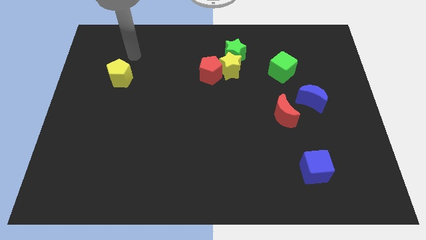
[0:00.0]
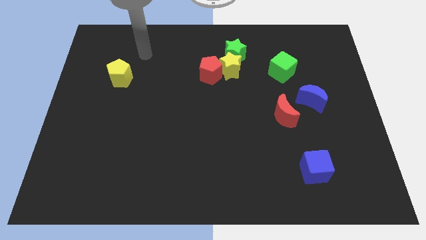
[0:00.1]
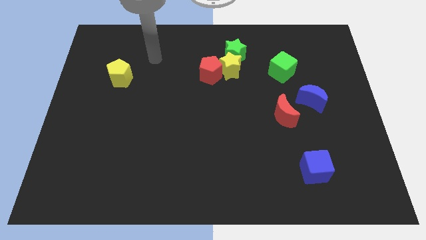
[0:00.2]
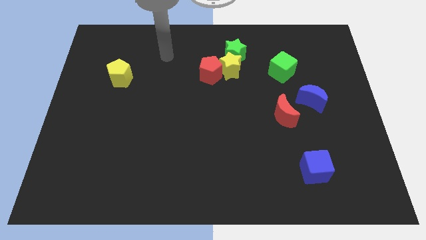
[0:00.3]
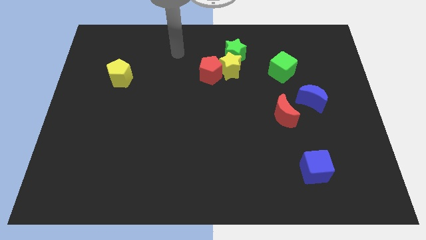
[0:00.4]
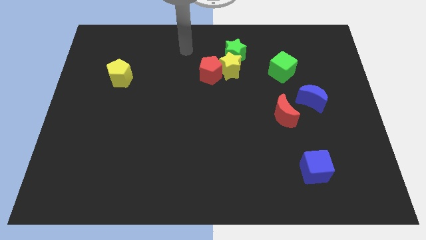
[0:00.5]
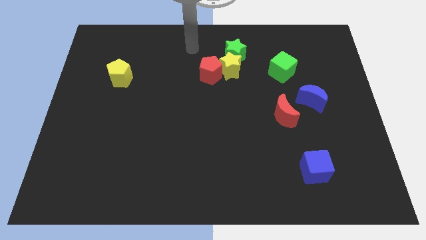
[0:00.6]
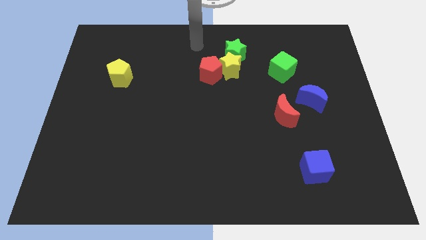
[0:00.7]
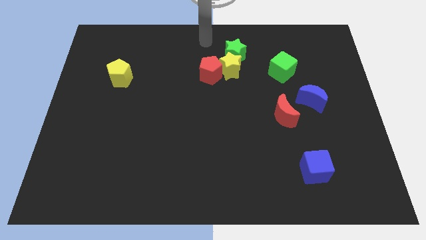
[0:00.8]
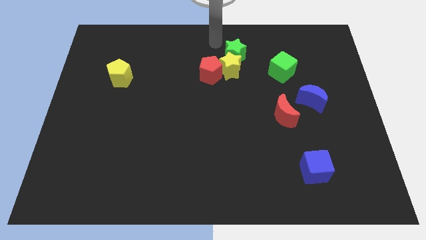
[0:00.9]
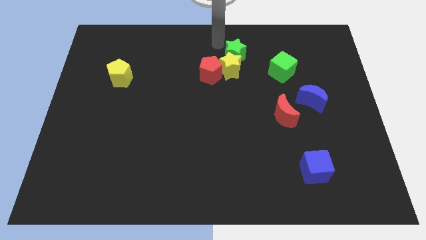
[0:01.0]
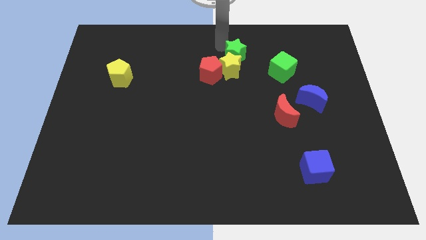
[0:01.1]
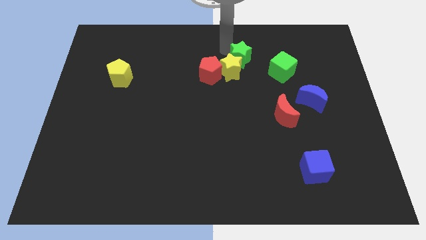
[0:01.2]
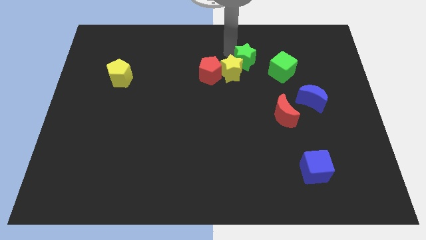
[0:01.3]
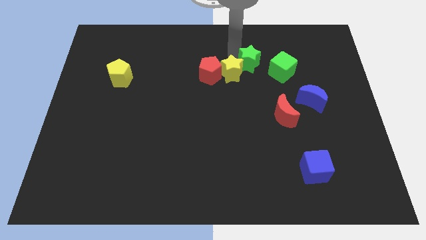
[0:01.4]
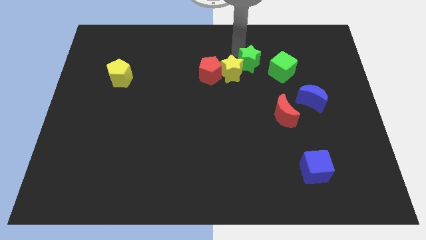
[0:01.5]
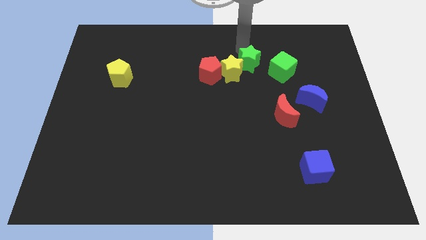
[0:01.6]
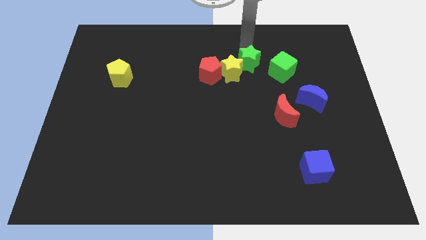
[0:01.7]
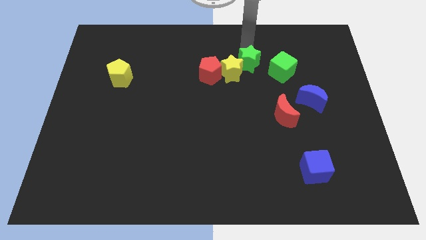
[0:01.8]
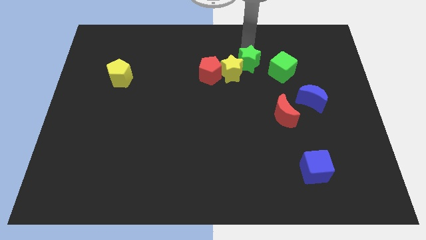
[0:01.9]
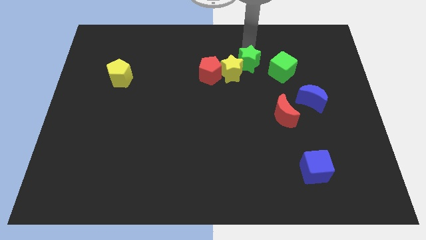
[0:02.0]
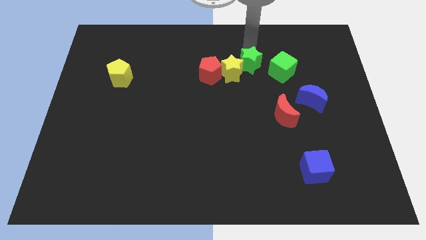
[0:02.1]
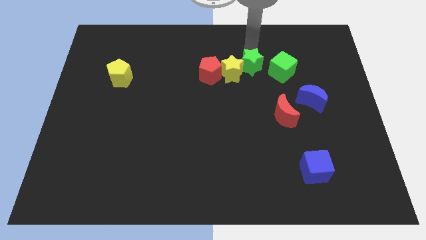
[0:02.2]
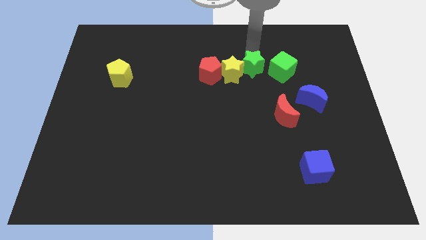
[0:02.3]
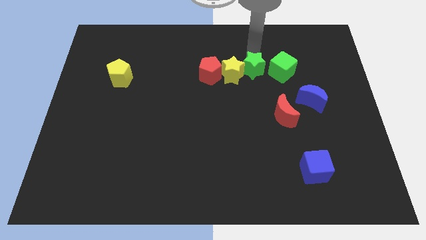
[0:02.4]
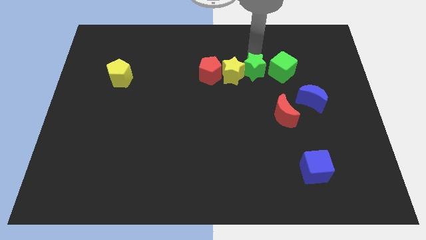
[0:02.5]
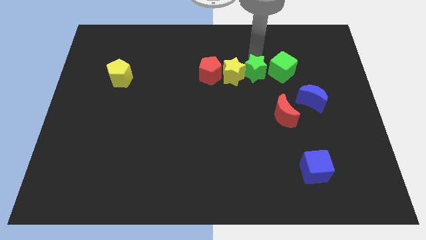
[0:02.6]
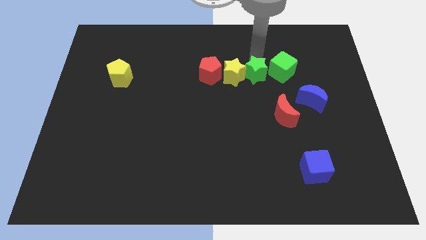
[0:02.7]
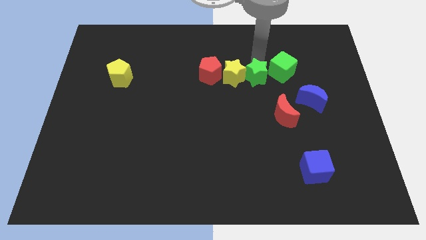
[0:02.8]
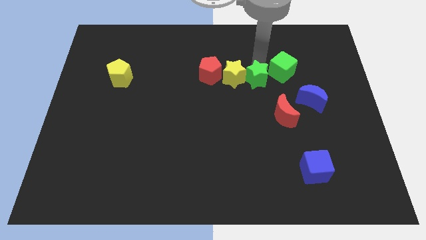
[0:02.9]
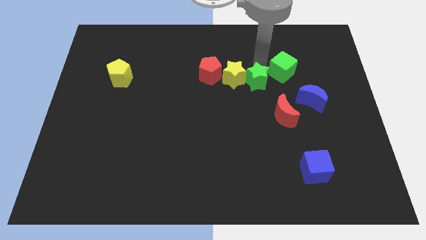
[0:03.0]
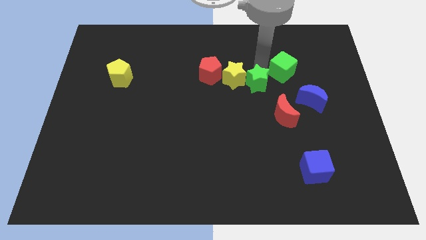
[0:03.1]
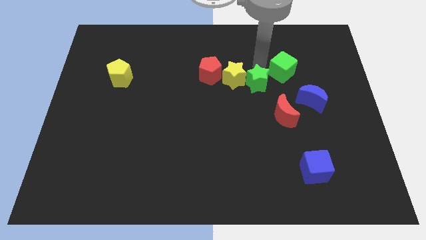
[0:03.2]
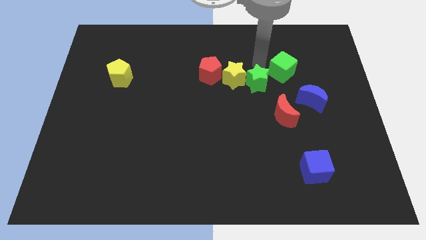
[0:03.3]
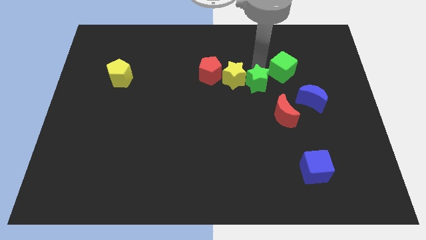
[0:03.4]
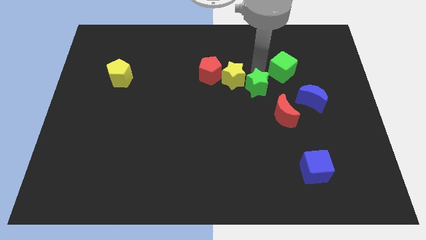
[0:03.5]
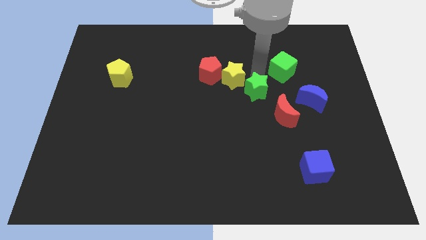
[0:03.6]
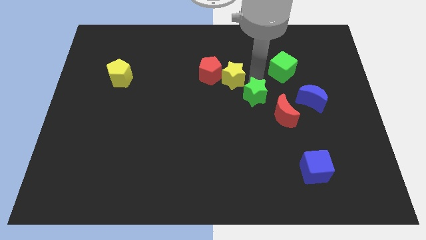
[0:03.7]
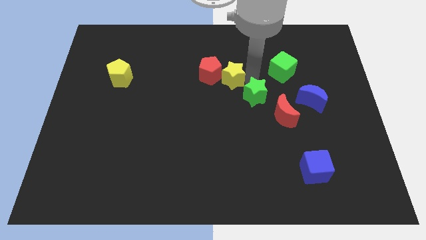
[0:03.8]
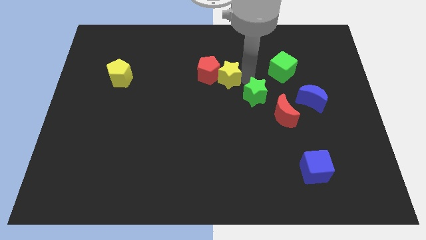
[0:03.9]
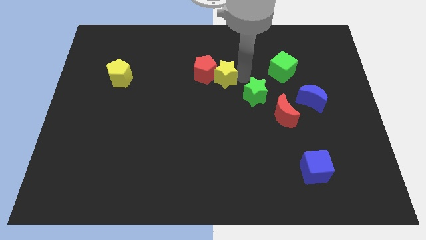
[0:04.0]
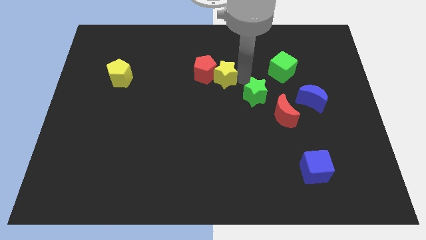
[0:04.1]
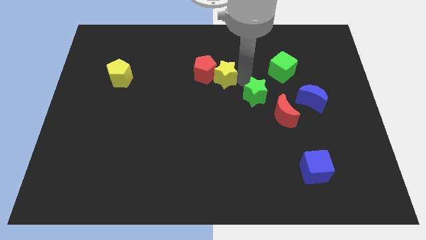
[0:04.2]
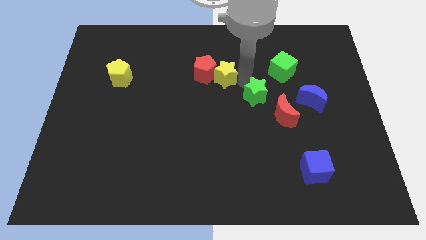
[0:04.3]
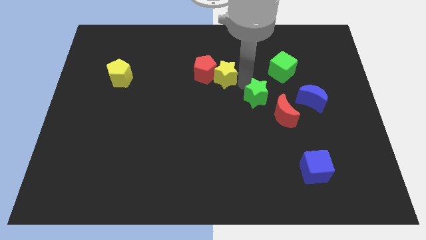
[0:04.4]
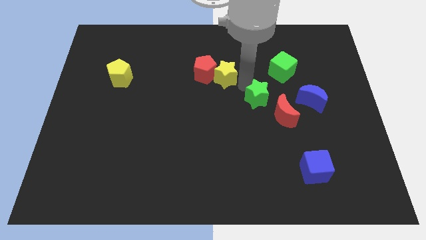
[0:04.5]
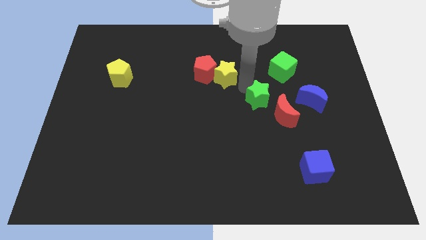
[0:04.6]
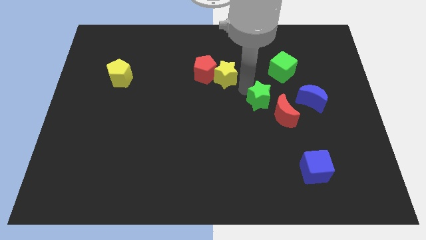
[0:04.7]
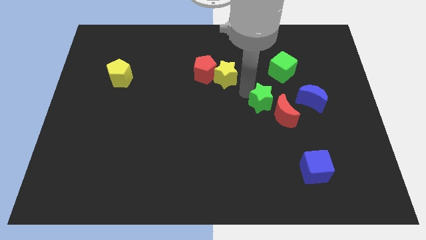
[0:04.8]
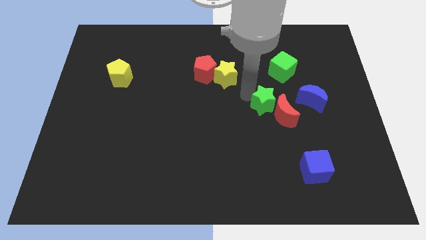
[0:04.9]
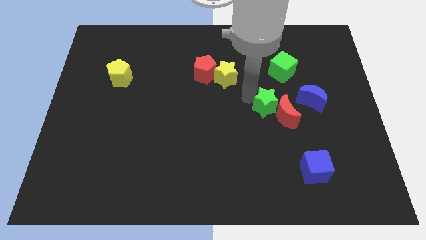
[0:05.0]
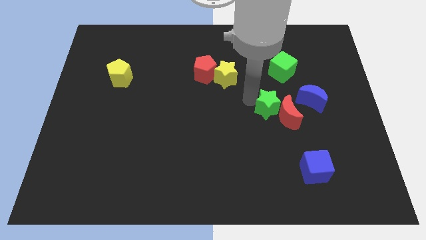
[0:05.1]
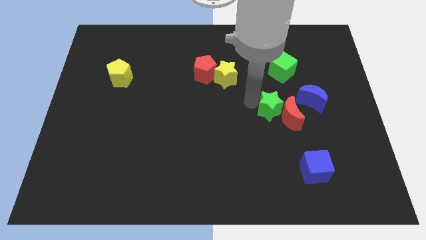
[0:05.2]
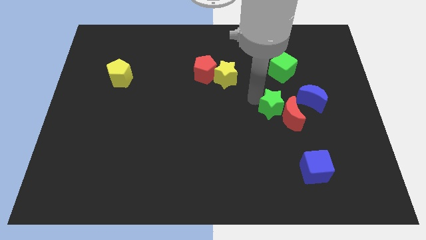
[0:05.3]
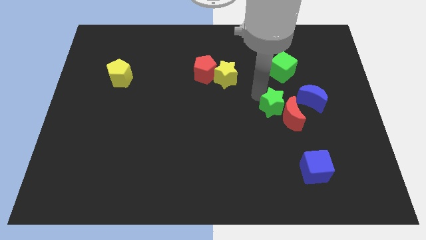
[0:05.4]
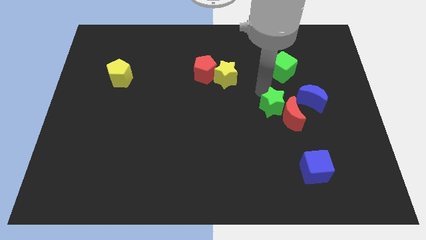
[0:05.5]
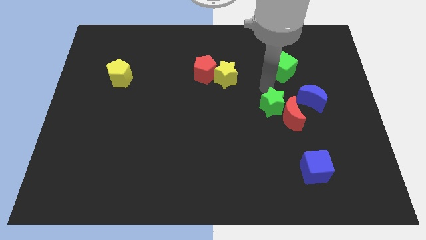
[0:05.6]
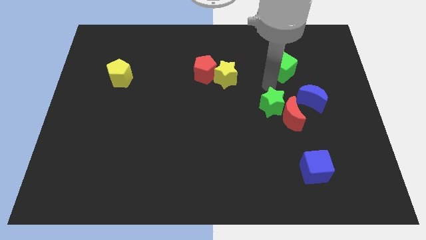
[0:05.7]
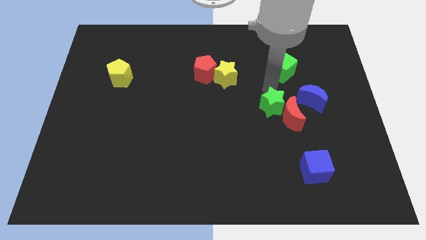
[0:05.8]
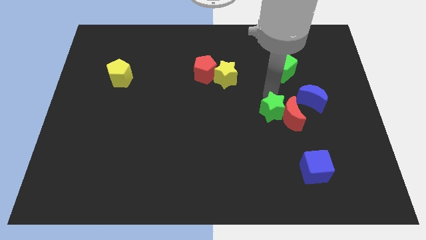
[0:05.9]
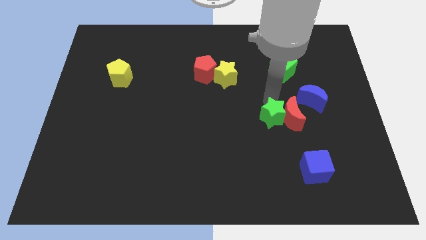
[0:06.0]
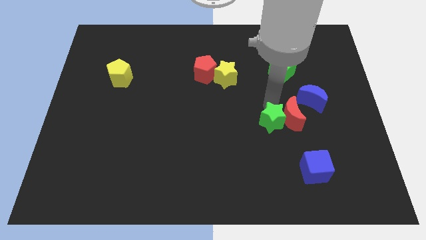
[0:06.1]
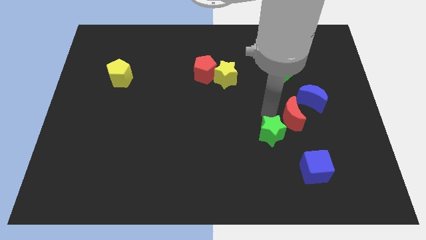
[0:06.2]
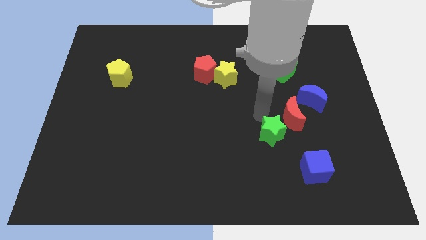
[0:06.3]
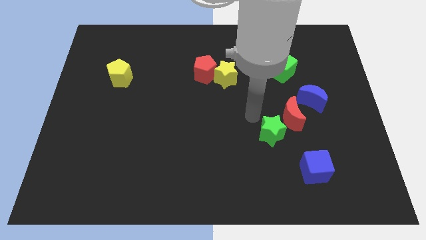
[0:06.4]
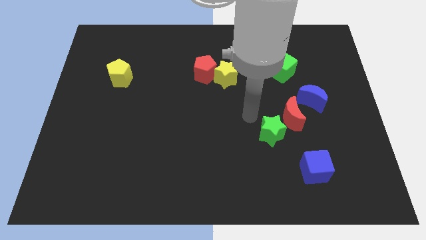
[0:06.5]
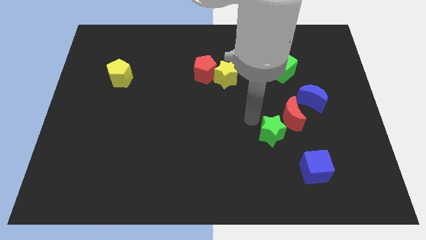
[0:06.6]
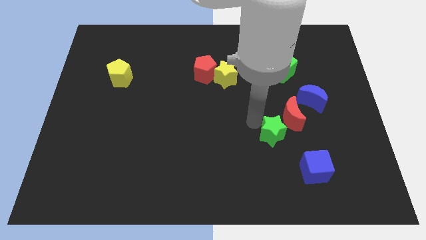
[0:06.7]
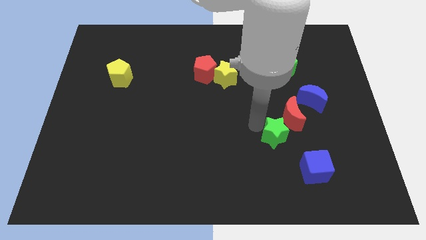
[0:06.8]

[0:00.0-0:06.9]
put the green star to the bottom of the red moon
